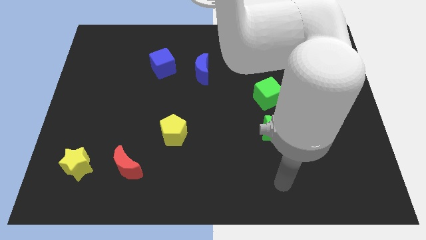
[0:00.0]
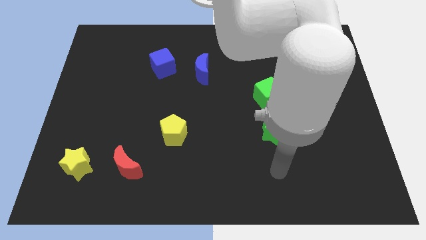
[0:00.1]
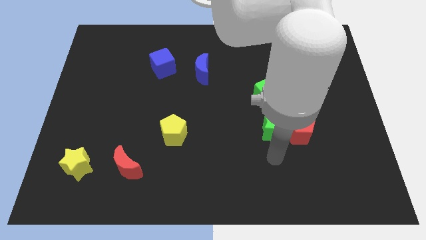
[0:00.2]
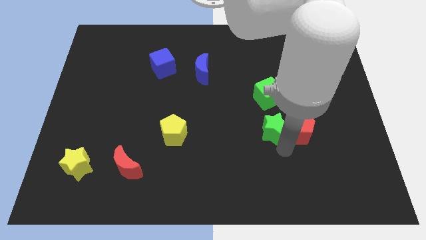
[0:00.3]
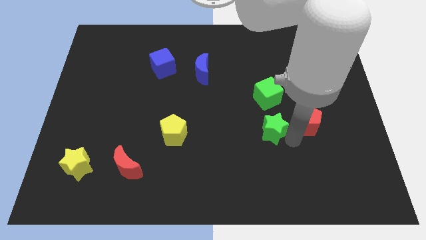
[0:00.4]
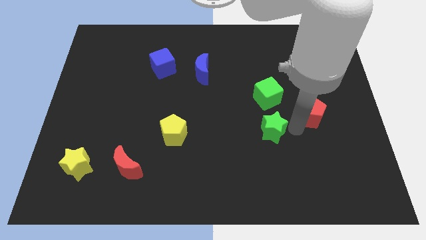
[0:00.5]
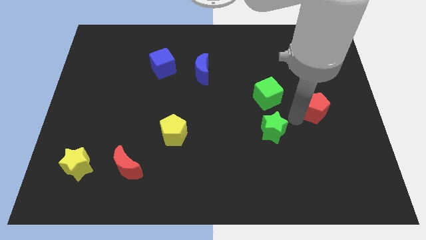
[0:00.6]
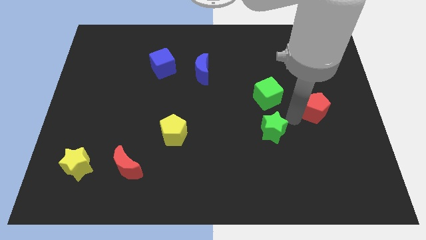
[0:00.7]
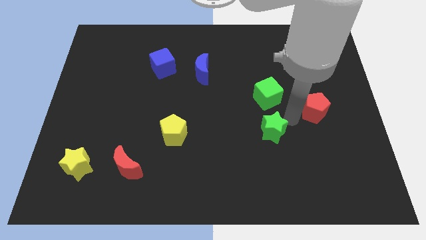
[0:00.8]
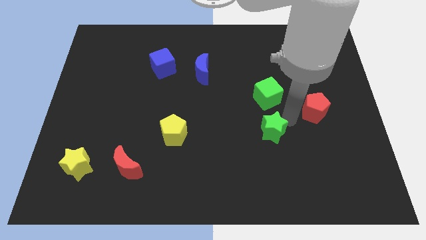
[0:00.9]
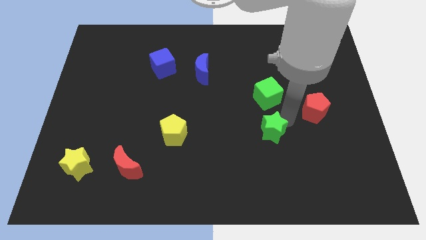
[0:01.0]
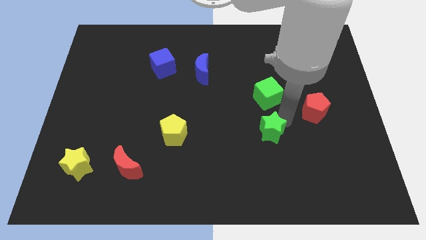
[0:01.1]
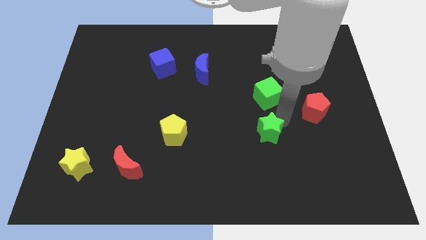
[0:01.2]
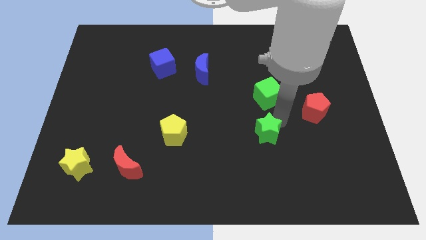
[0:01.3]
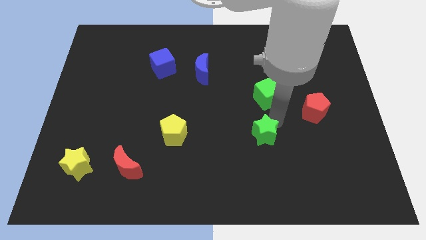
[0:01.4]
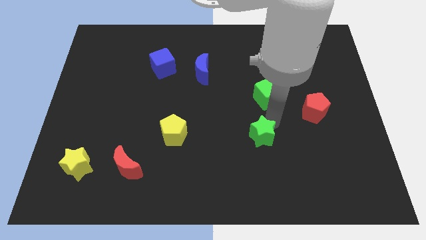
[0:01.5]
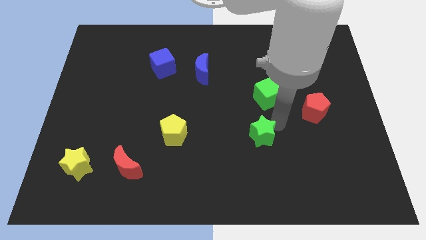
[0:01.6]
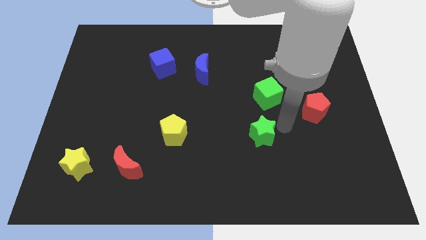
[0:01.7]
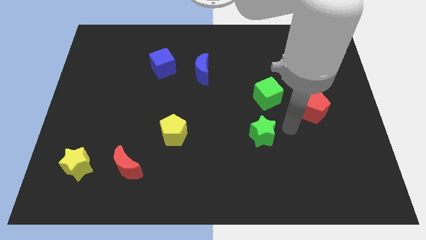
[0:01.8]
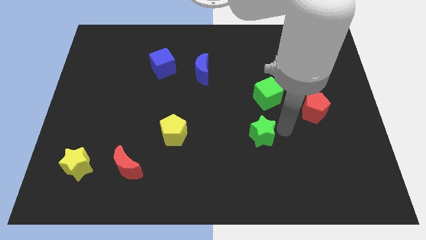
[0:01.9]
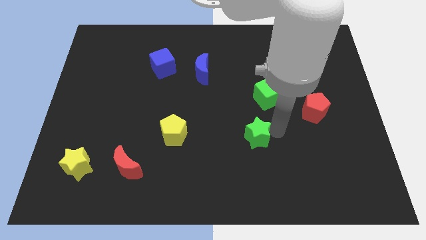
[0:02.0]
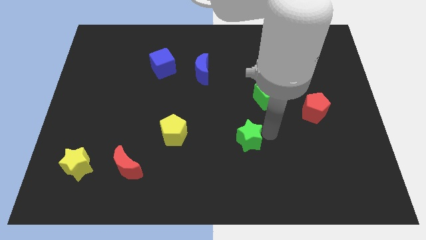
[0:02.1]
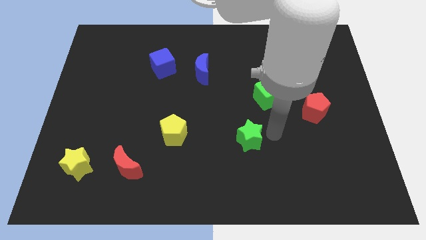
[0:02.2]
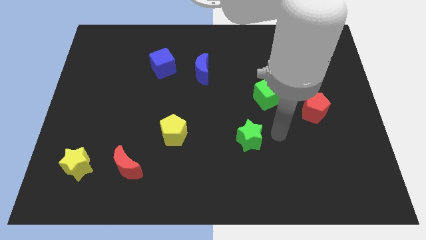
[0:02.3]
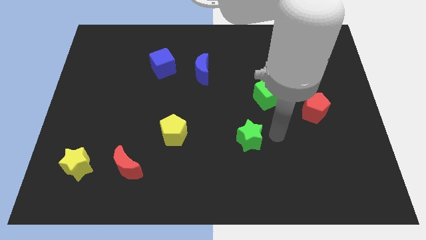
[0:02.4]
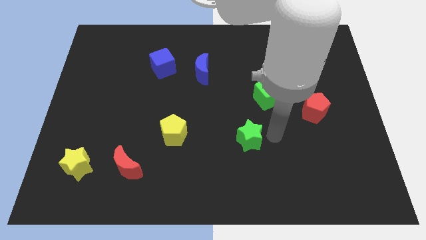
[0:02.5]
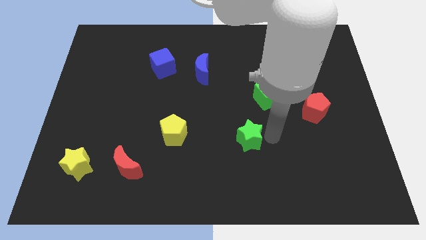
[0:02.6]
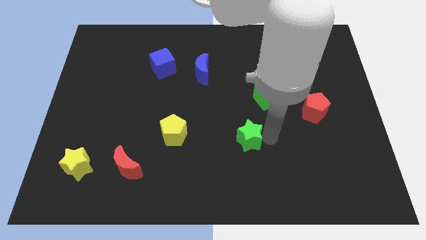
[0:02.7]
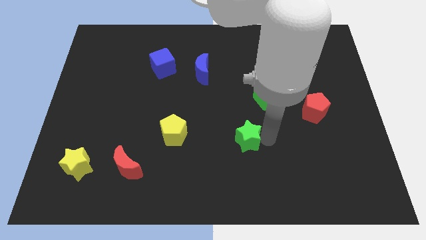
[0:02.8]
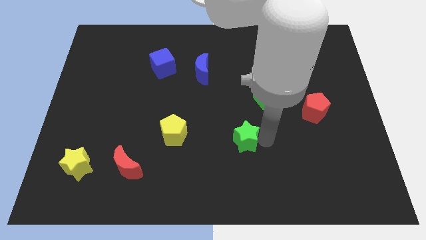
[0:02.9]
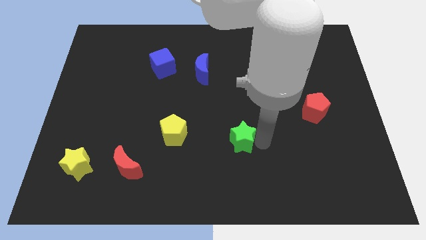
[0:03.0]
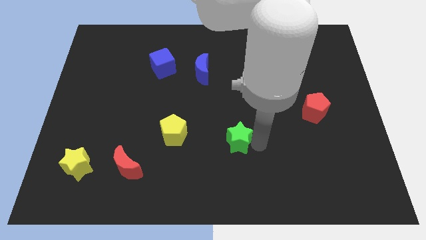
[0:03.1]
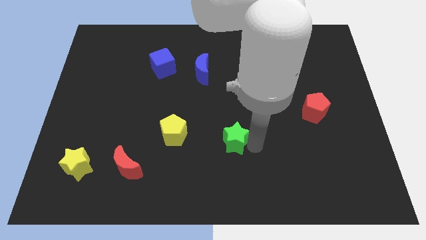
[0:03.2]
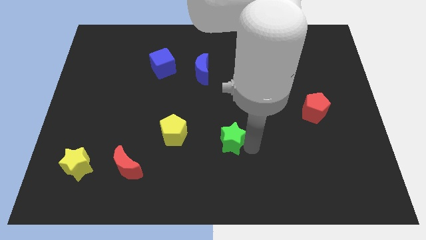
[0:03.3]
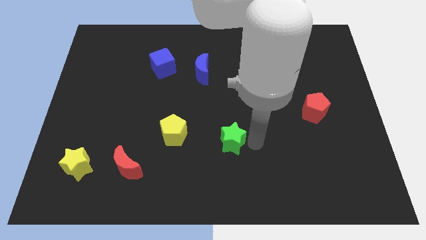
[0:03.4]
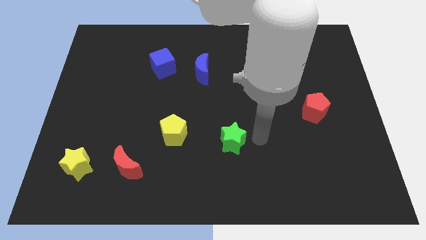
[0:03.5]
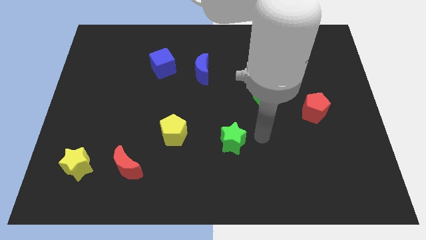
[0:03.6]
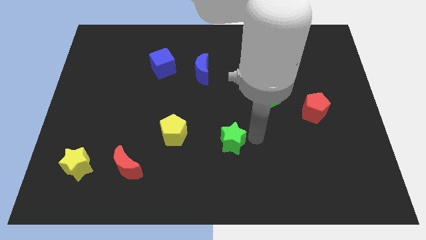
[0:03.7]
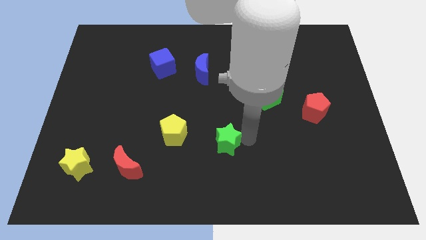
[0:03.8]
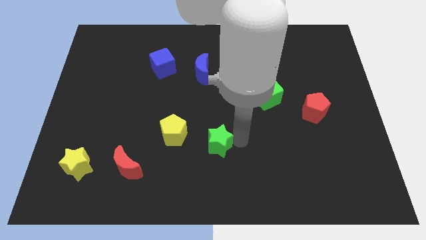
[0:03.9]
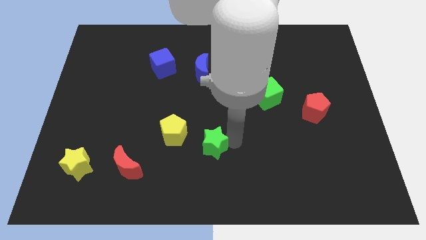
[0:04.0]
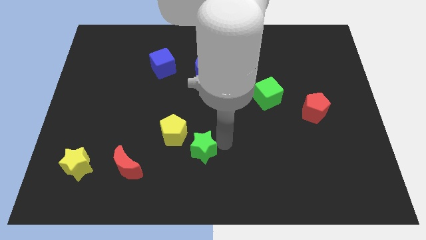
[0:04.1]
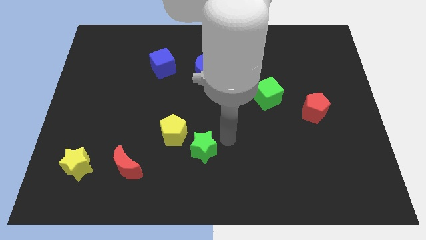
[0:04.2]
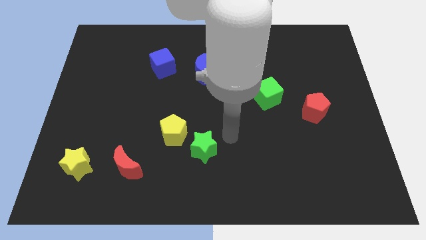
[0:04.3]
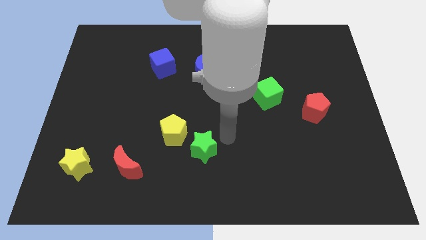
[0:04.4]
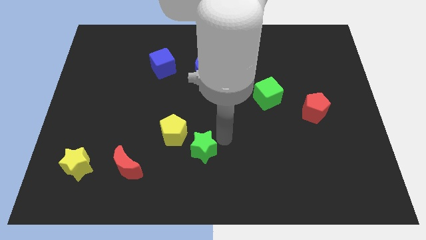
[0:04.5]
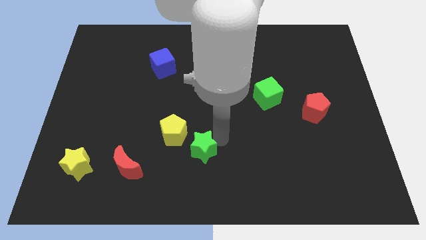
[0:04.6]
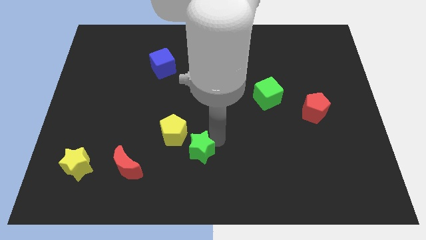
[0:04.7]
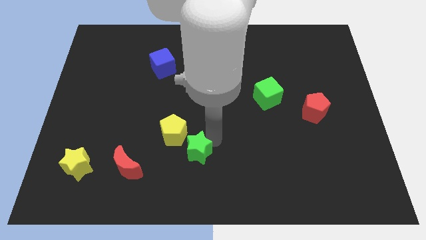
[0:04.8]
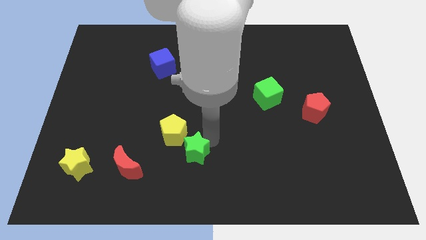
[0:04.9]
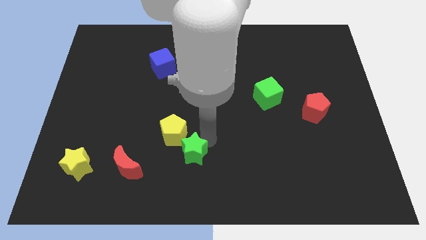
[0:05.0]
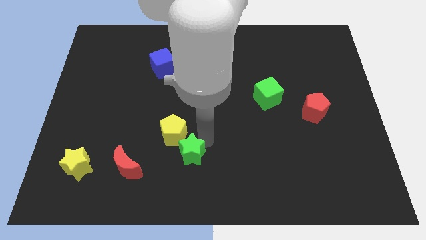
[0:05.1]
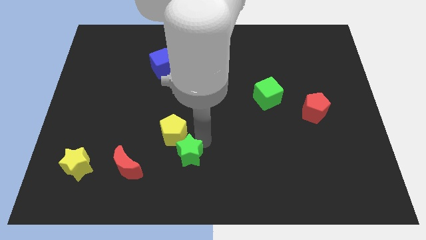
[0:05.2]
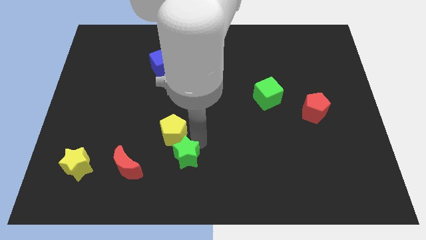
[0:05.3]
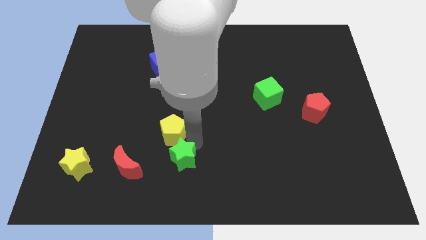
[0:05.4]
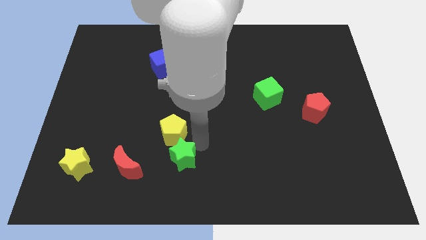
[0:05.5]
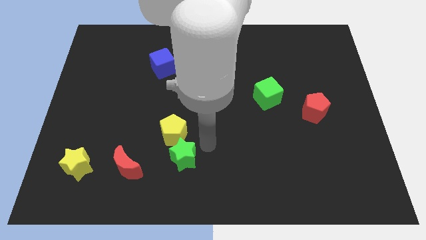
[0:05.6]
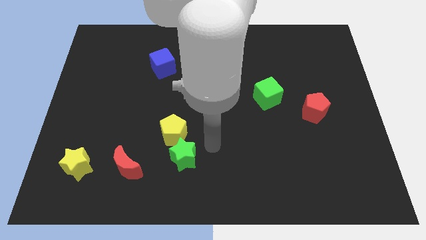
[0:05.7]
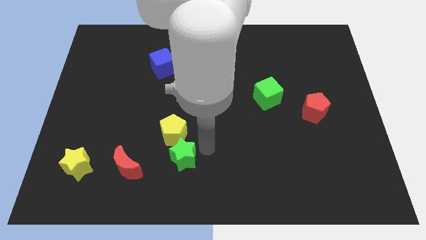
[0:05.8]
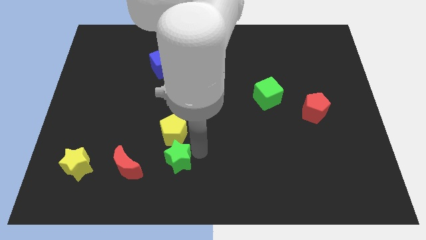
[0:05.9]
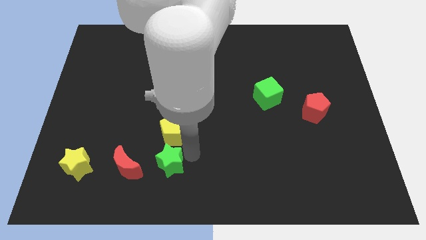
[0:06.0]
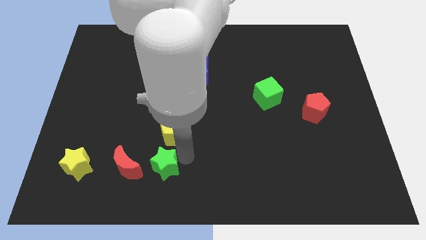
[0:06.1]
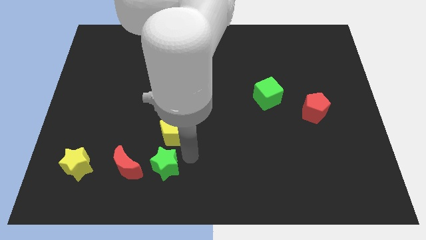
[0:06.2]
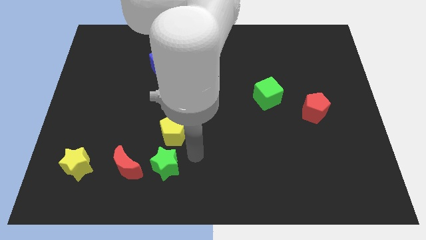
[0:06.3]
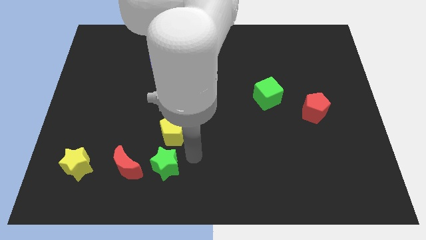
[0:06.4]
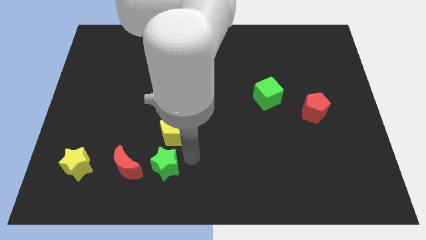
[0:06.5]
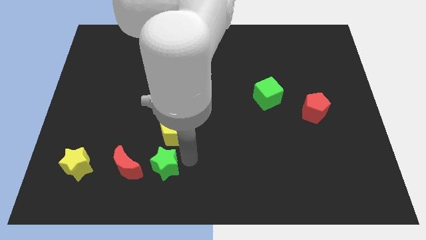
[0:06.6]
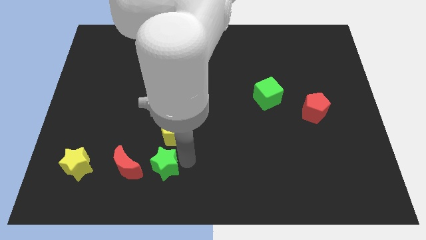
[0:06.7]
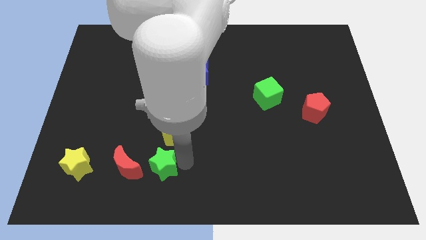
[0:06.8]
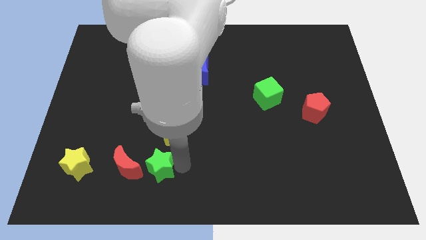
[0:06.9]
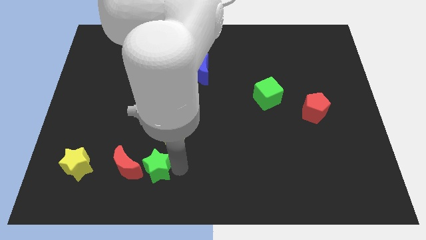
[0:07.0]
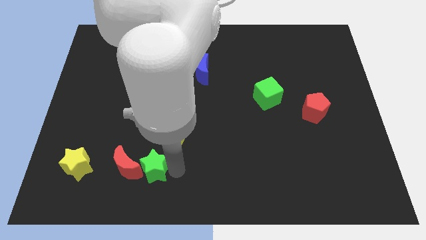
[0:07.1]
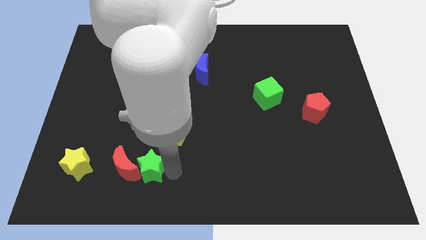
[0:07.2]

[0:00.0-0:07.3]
push the green star just right of the yellow star
